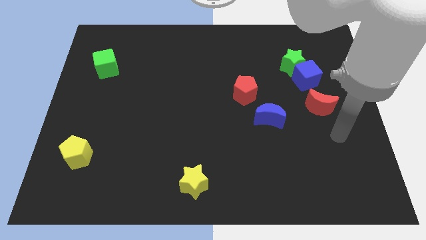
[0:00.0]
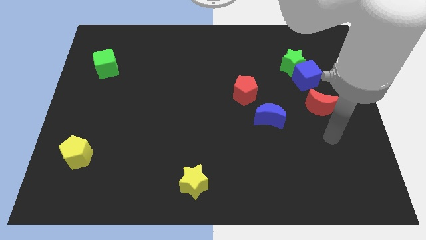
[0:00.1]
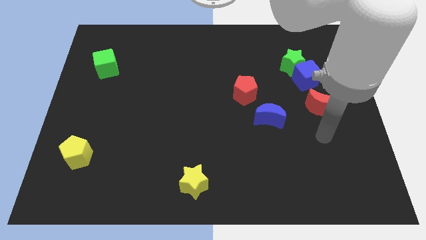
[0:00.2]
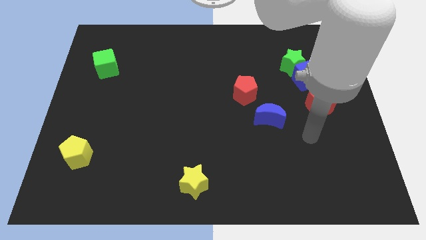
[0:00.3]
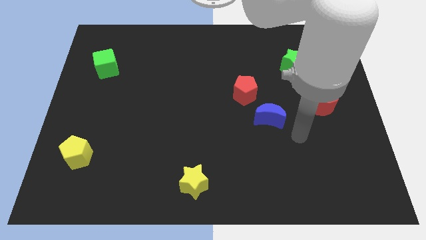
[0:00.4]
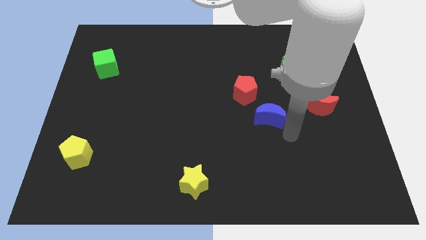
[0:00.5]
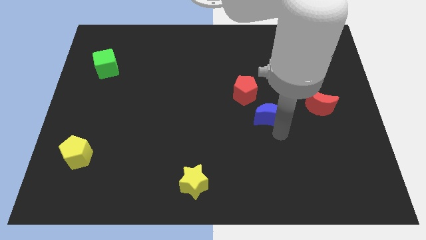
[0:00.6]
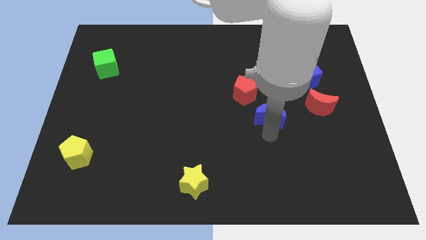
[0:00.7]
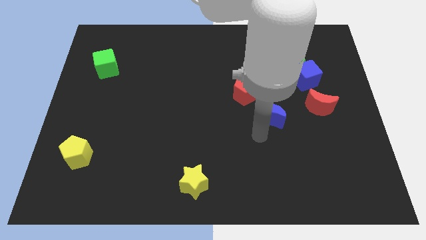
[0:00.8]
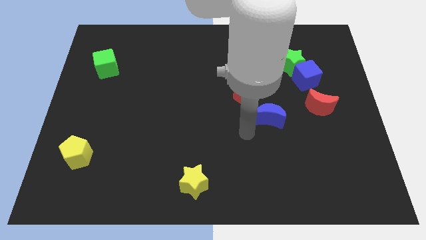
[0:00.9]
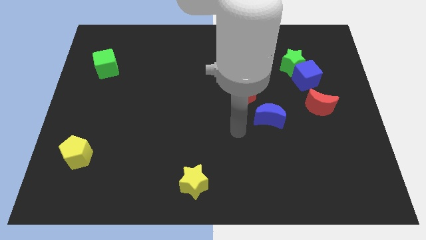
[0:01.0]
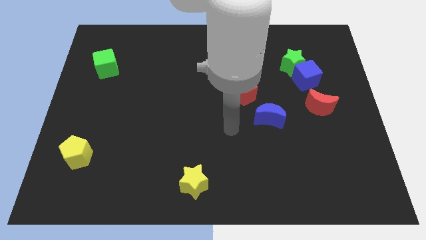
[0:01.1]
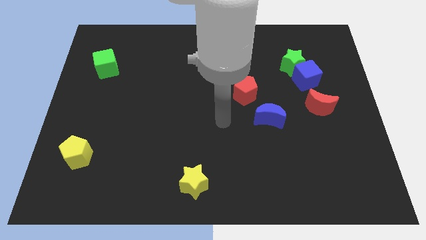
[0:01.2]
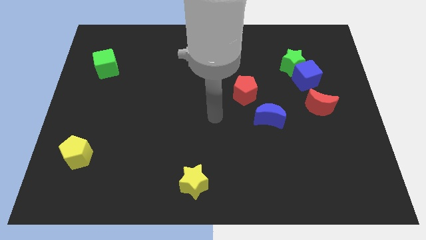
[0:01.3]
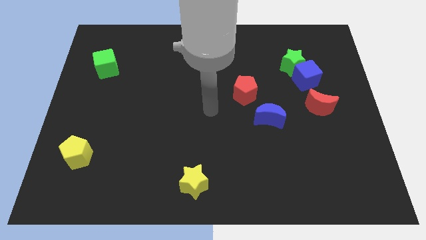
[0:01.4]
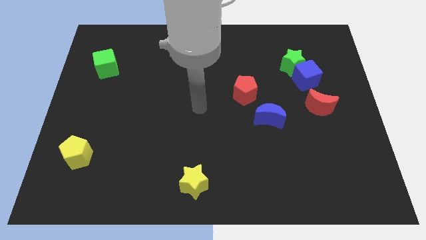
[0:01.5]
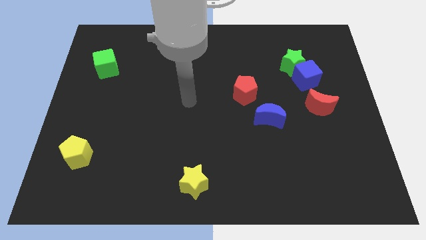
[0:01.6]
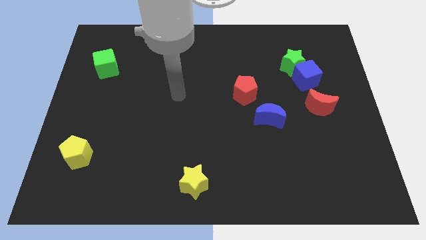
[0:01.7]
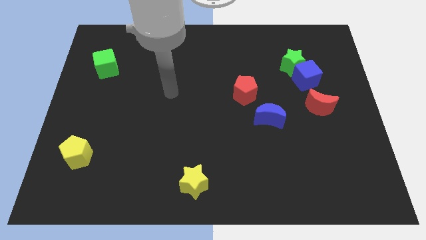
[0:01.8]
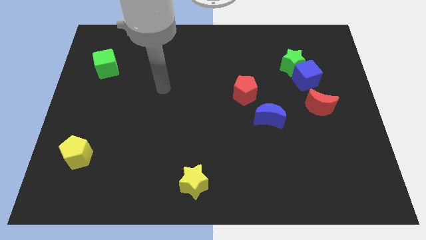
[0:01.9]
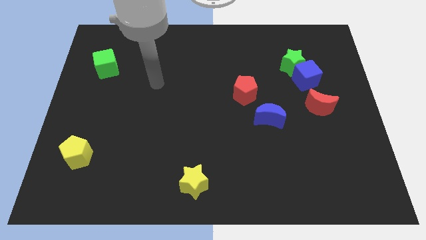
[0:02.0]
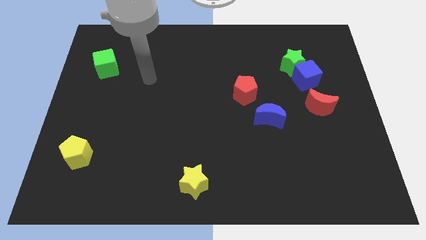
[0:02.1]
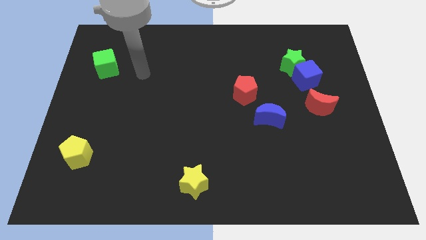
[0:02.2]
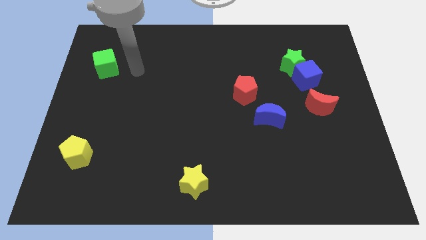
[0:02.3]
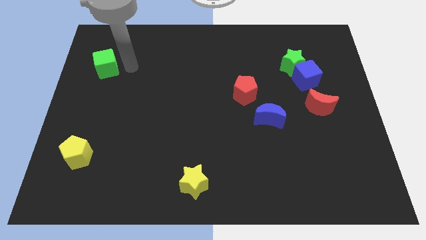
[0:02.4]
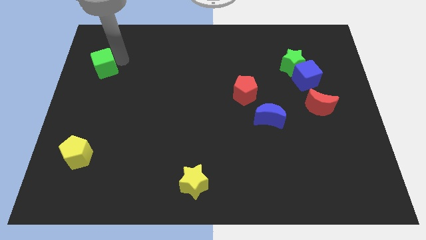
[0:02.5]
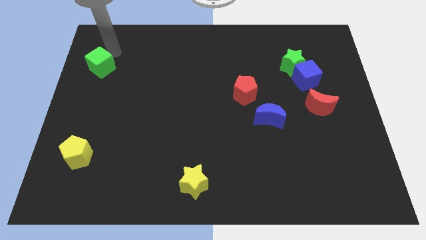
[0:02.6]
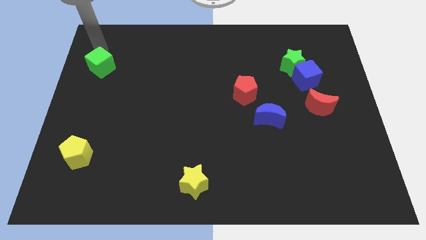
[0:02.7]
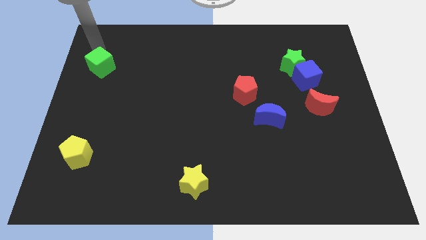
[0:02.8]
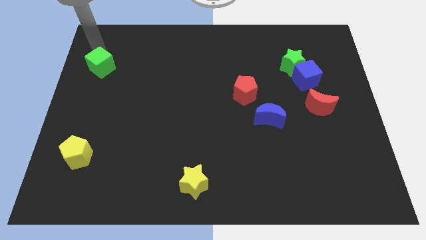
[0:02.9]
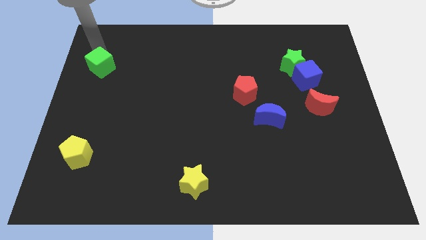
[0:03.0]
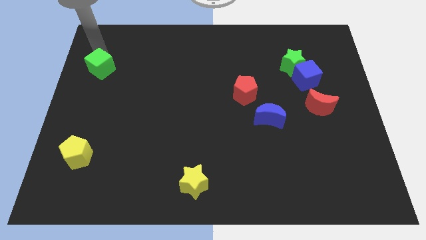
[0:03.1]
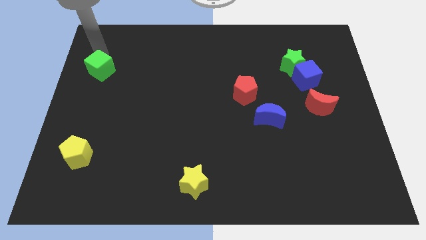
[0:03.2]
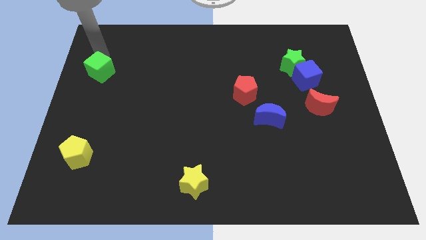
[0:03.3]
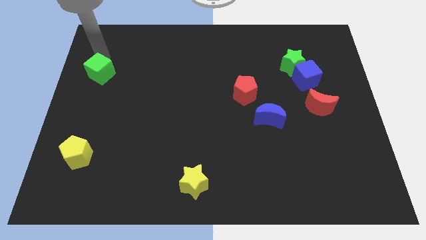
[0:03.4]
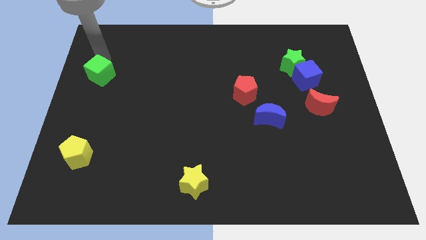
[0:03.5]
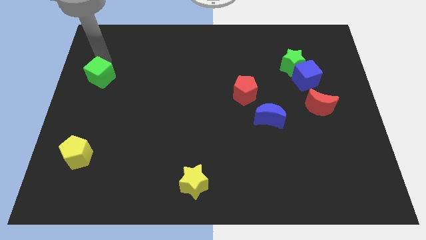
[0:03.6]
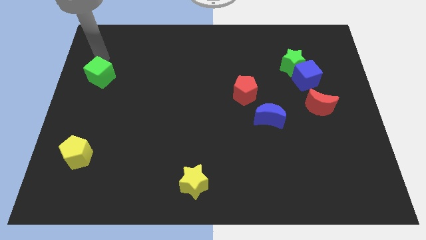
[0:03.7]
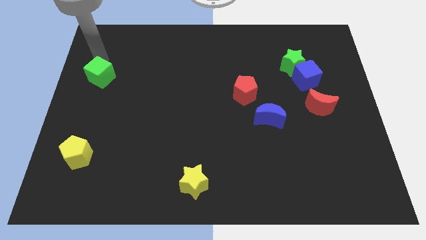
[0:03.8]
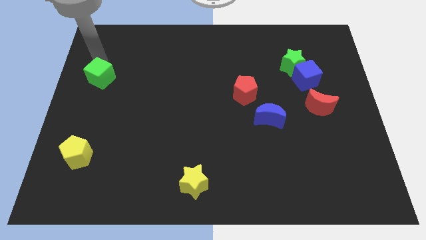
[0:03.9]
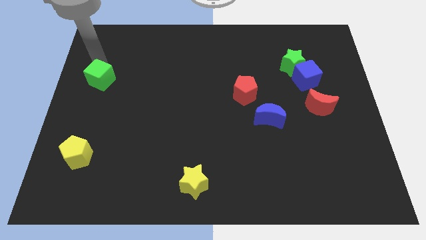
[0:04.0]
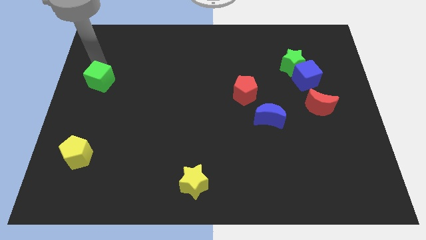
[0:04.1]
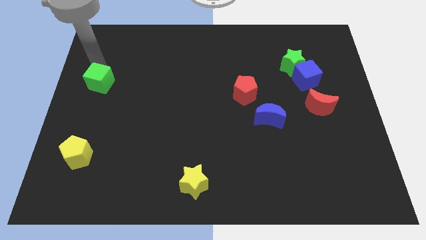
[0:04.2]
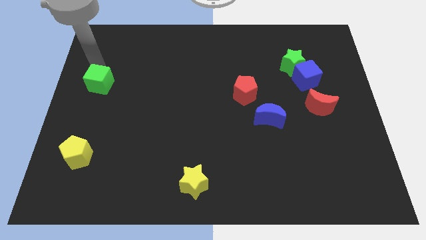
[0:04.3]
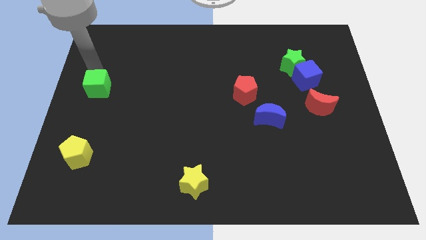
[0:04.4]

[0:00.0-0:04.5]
slide the green cube down a bit

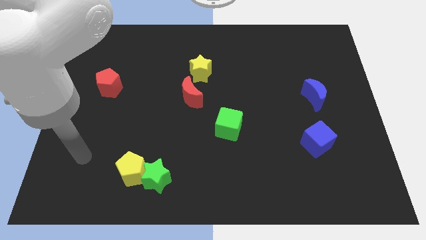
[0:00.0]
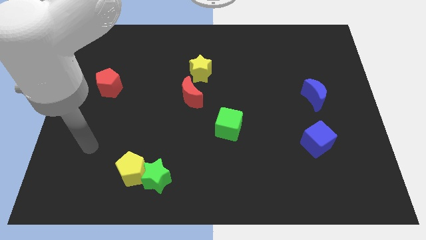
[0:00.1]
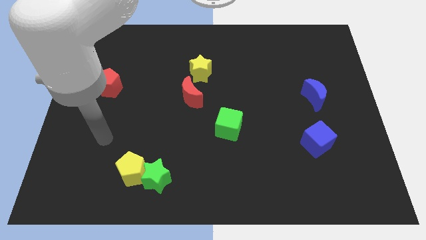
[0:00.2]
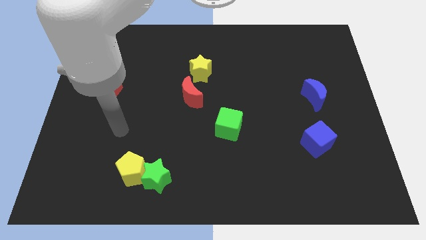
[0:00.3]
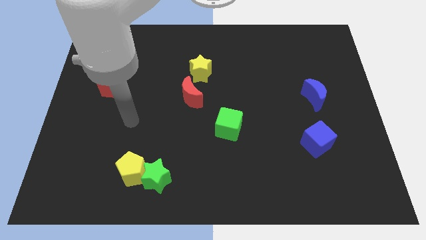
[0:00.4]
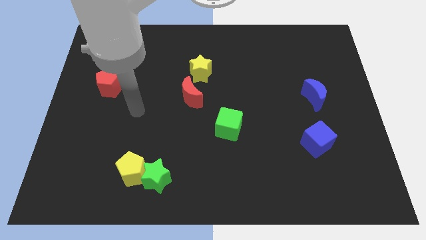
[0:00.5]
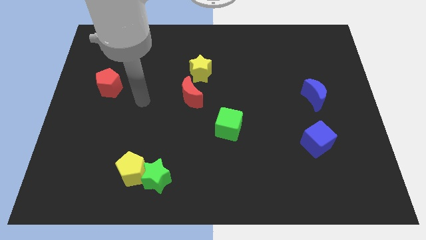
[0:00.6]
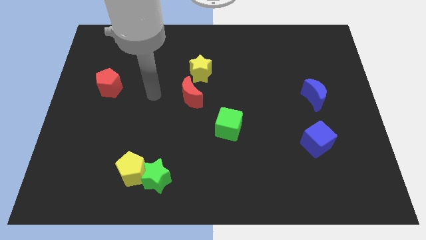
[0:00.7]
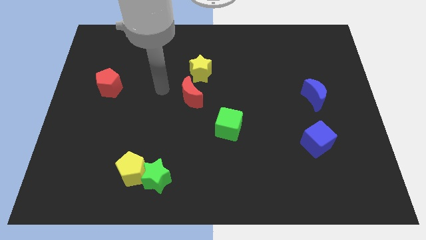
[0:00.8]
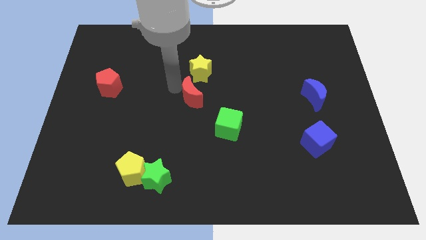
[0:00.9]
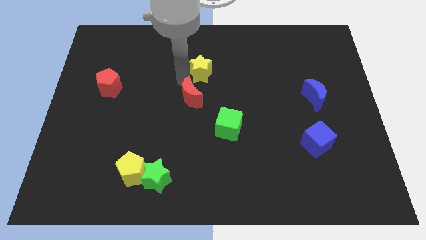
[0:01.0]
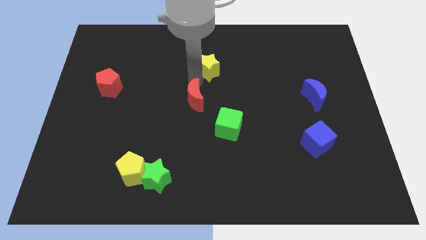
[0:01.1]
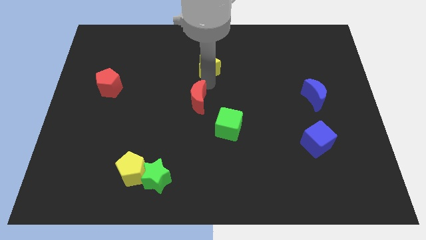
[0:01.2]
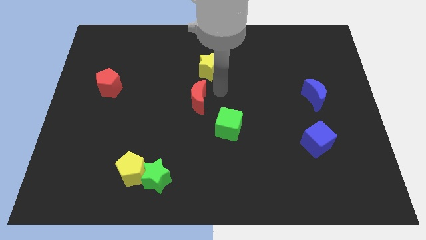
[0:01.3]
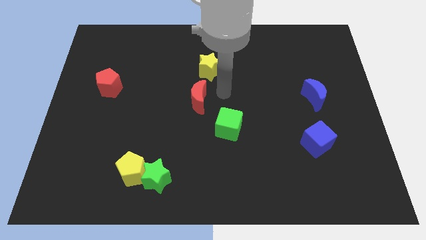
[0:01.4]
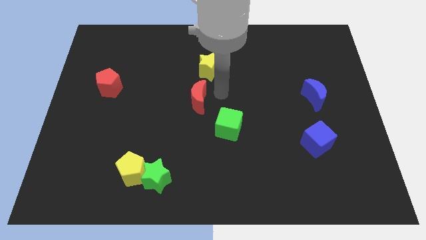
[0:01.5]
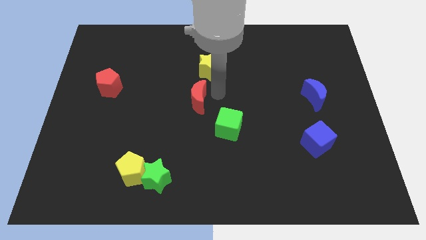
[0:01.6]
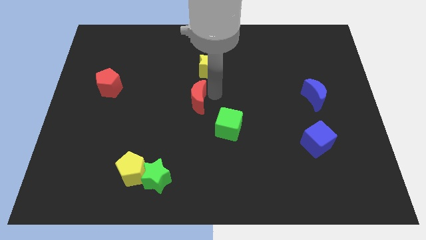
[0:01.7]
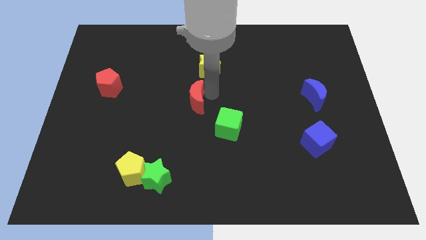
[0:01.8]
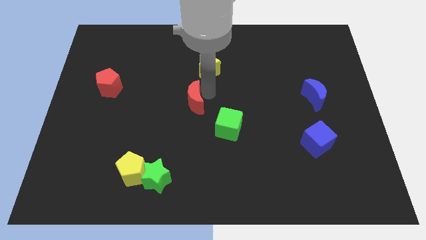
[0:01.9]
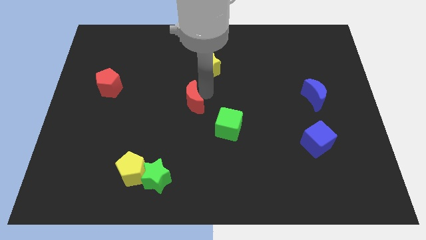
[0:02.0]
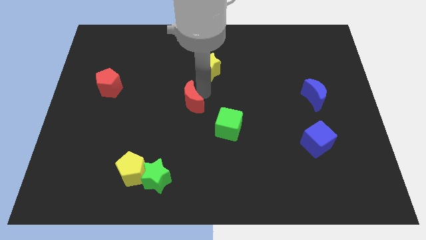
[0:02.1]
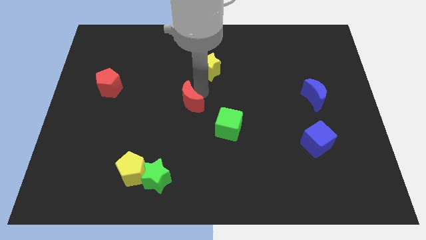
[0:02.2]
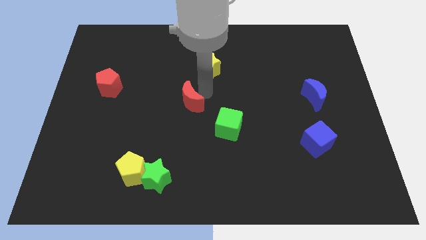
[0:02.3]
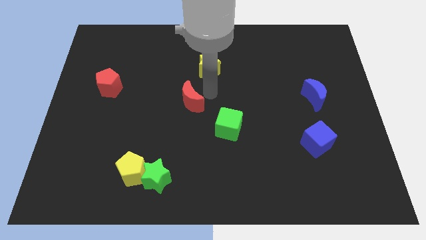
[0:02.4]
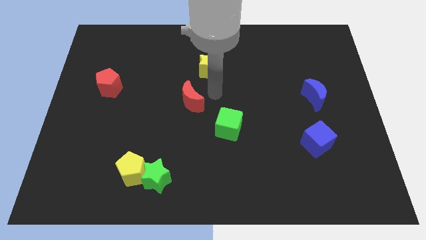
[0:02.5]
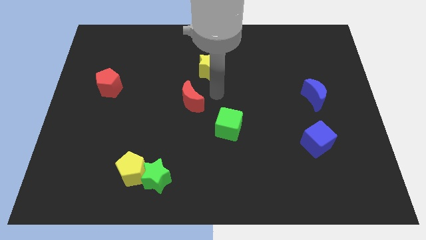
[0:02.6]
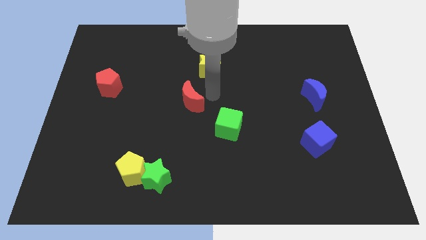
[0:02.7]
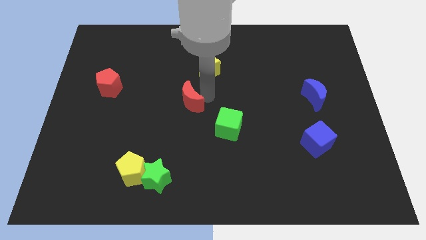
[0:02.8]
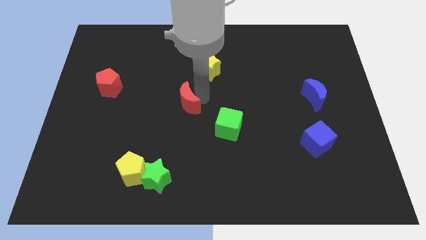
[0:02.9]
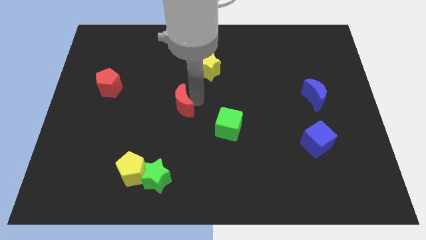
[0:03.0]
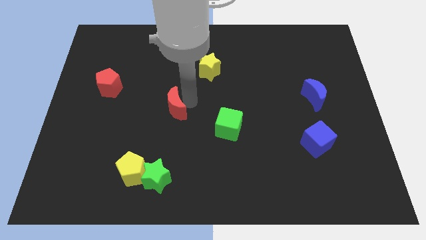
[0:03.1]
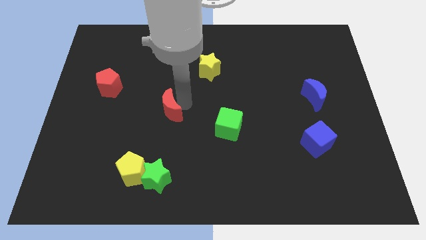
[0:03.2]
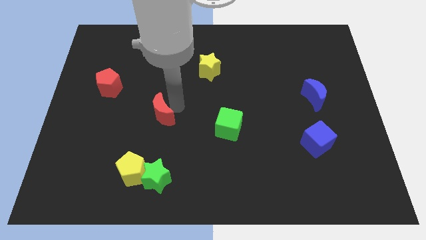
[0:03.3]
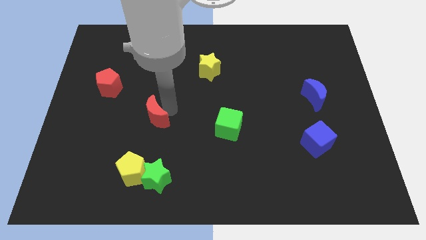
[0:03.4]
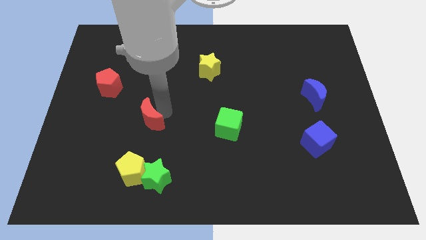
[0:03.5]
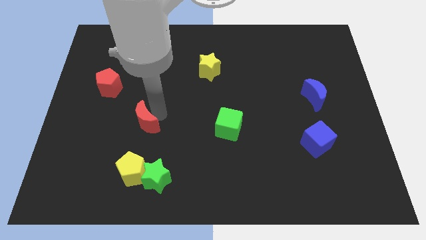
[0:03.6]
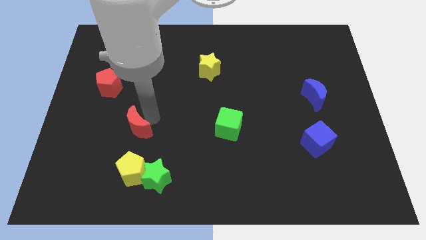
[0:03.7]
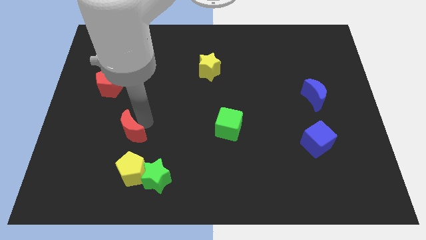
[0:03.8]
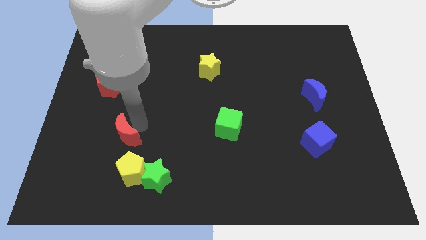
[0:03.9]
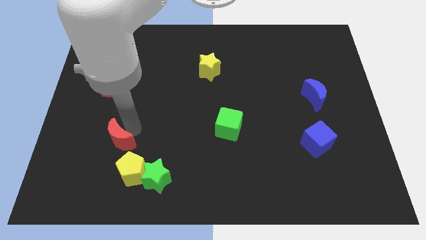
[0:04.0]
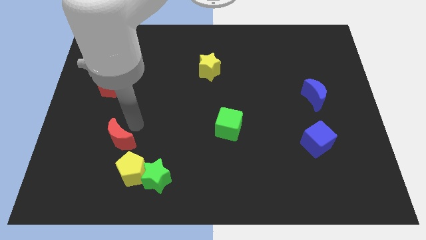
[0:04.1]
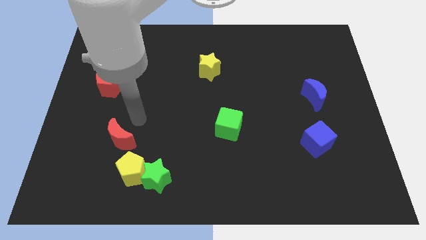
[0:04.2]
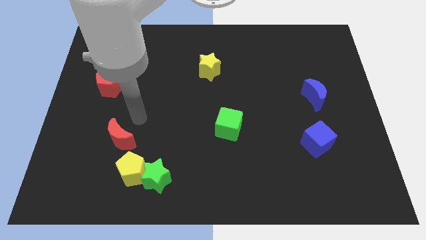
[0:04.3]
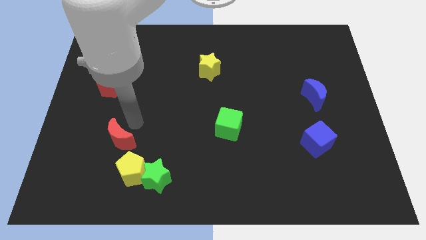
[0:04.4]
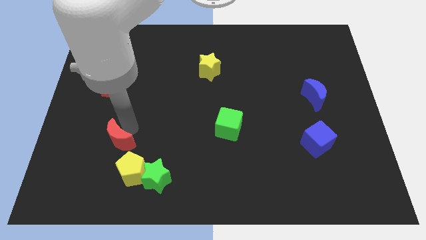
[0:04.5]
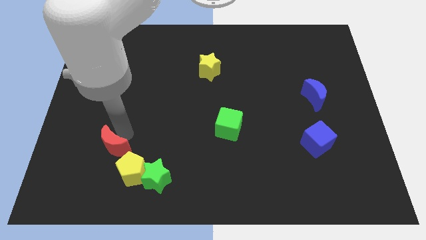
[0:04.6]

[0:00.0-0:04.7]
slide the red moon down and then to the left
